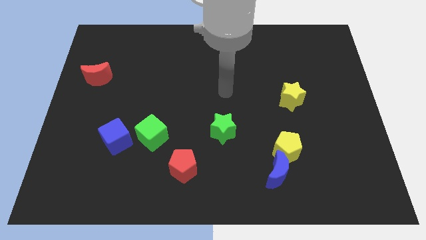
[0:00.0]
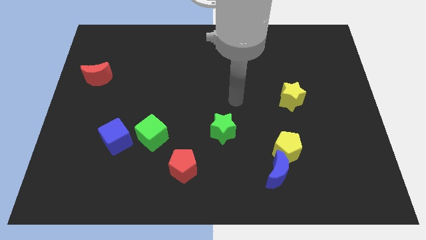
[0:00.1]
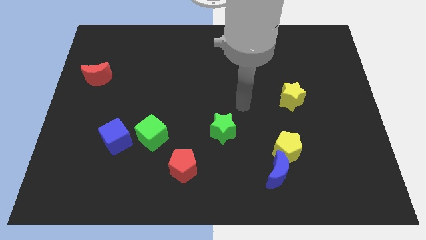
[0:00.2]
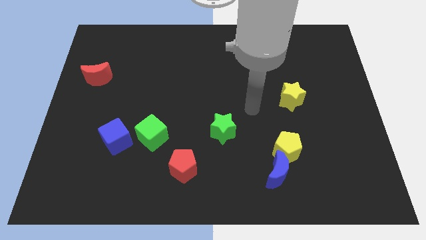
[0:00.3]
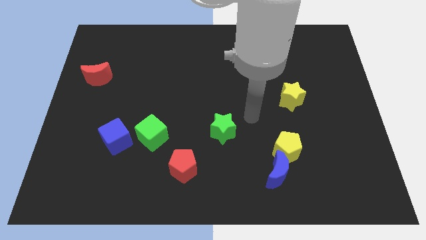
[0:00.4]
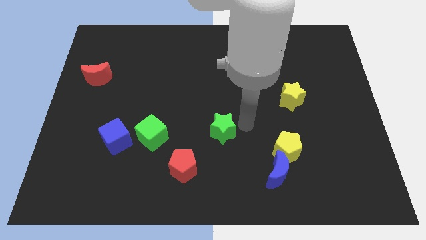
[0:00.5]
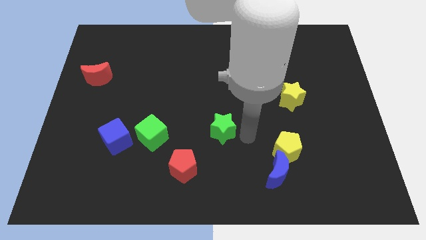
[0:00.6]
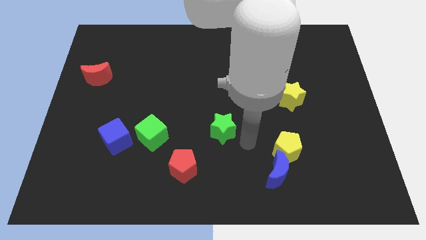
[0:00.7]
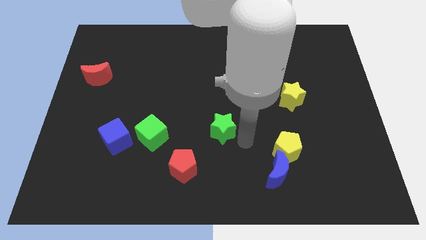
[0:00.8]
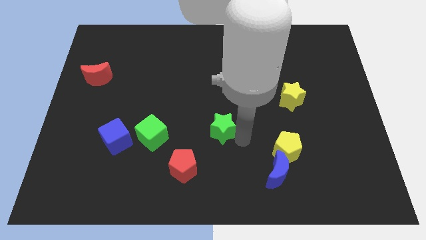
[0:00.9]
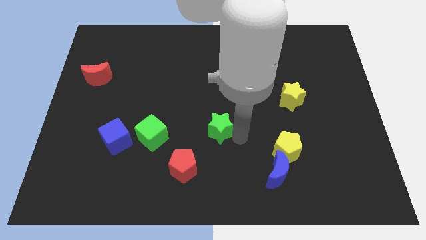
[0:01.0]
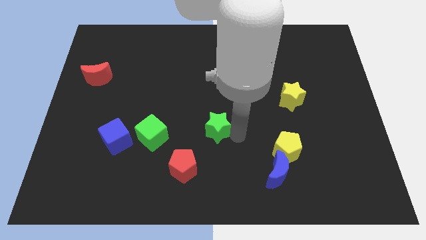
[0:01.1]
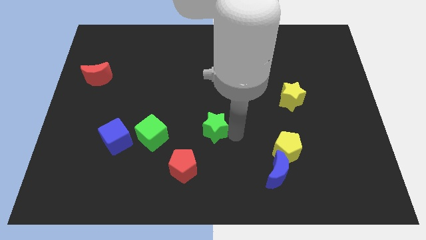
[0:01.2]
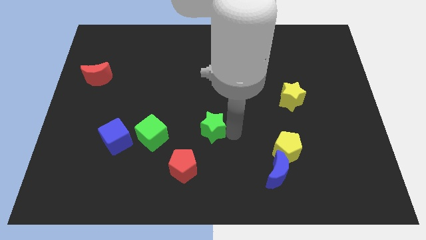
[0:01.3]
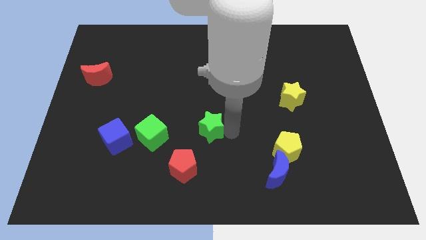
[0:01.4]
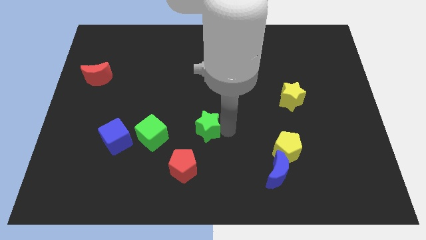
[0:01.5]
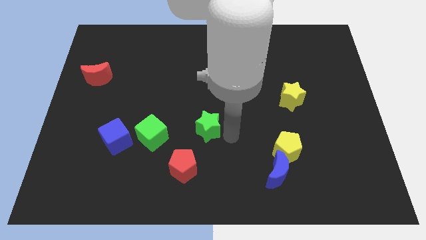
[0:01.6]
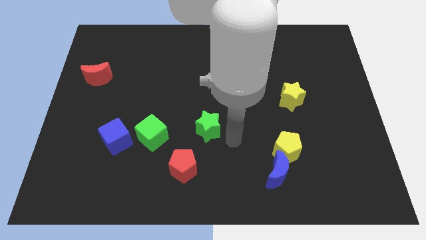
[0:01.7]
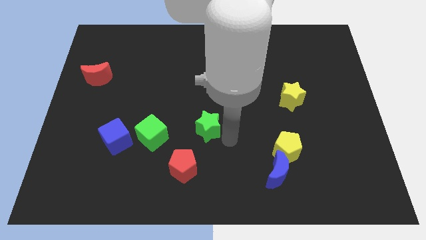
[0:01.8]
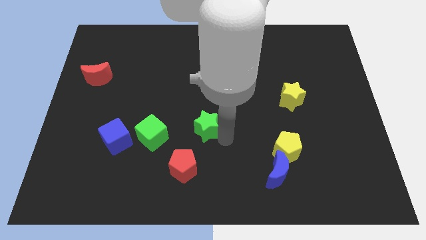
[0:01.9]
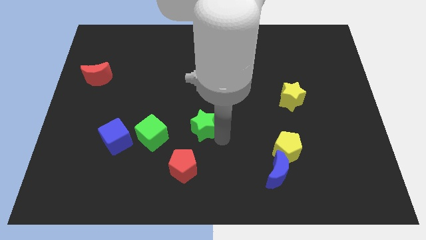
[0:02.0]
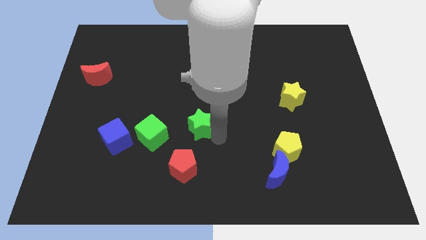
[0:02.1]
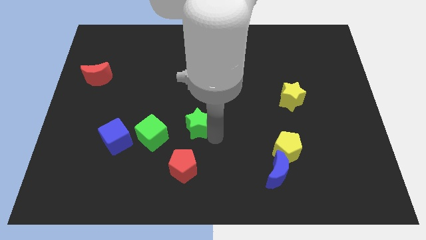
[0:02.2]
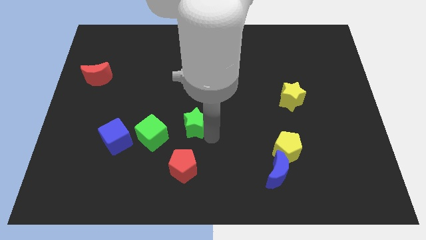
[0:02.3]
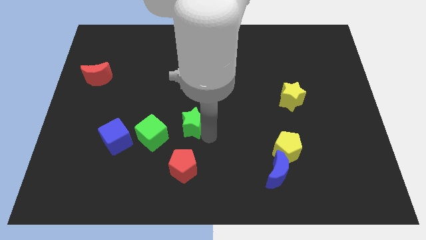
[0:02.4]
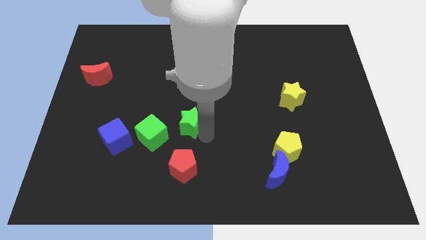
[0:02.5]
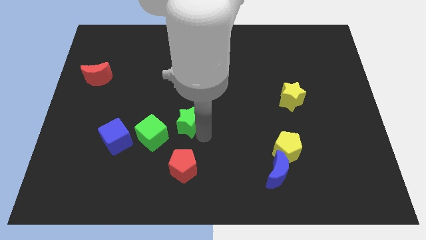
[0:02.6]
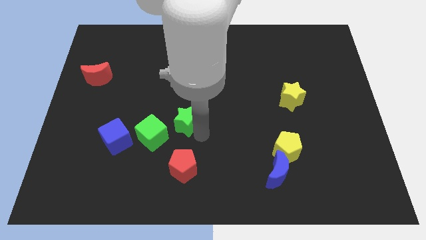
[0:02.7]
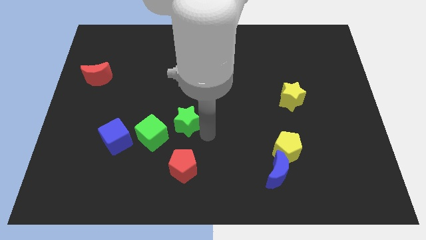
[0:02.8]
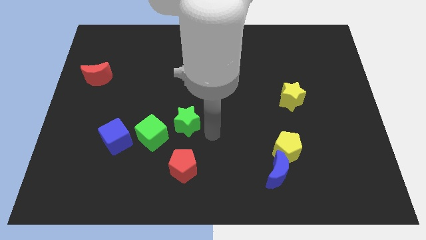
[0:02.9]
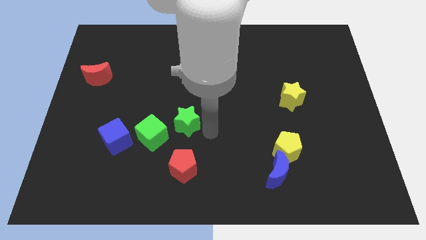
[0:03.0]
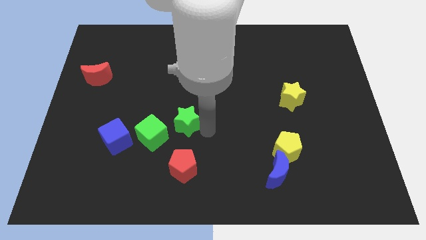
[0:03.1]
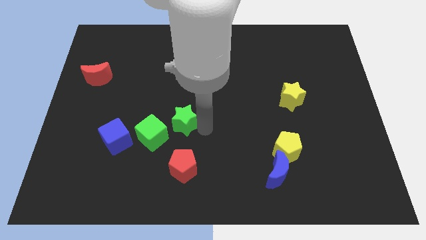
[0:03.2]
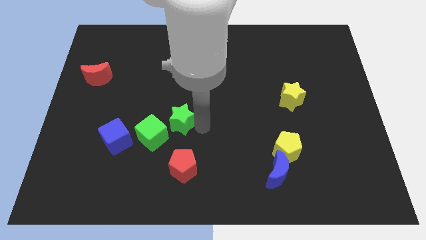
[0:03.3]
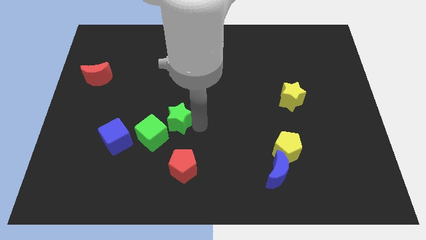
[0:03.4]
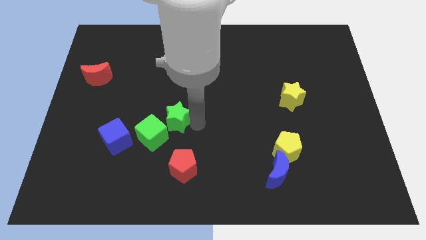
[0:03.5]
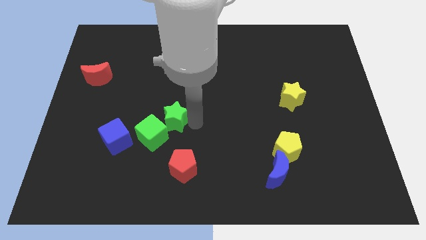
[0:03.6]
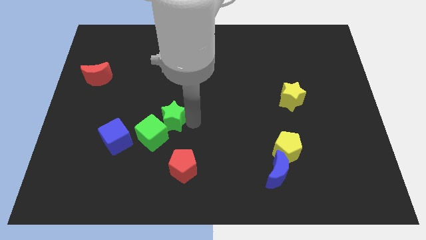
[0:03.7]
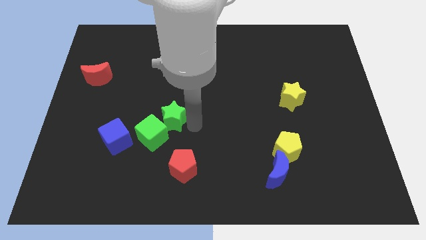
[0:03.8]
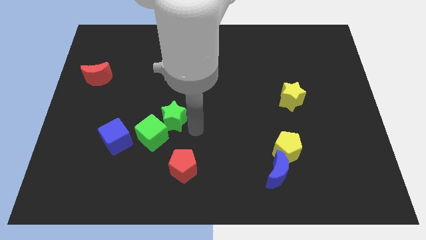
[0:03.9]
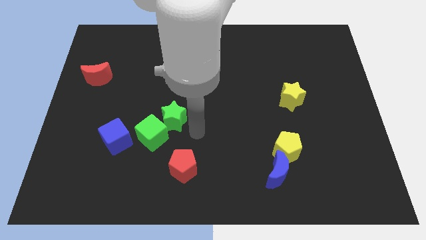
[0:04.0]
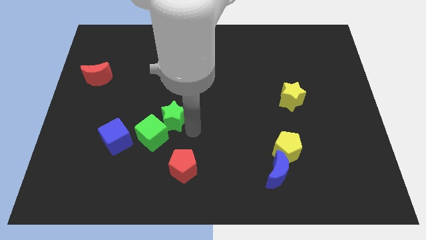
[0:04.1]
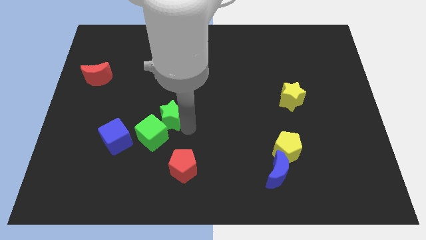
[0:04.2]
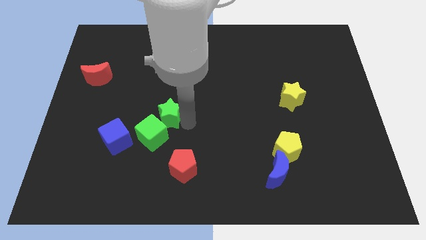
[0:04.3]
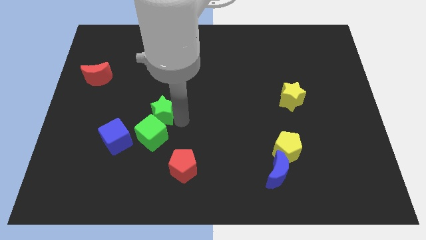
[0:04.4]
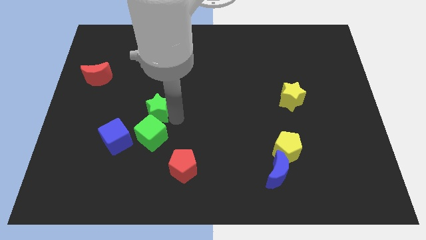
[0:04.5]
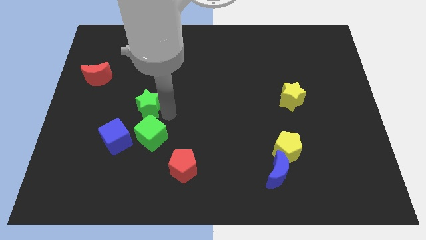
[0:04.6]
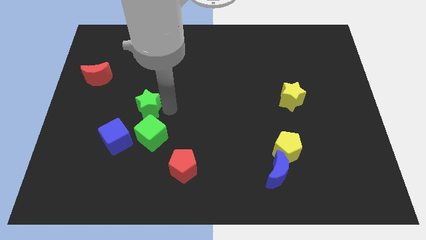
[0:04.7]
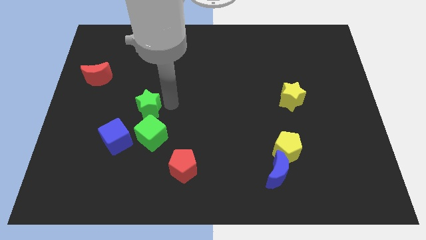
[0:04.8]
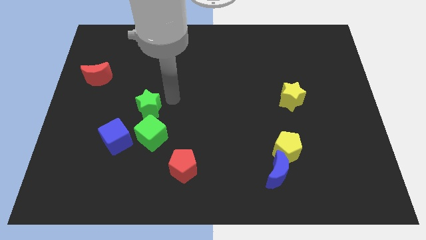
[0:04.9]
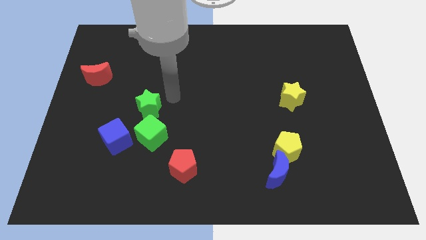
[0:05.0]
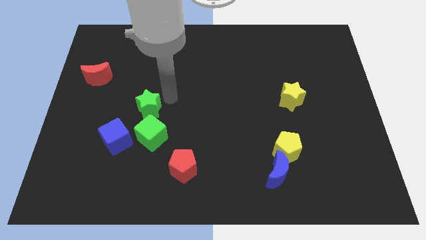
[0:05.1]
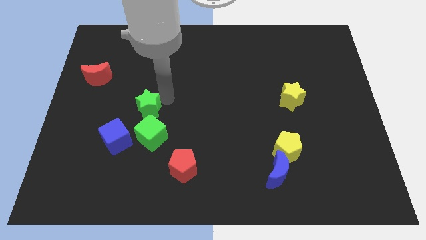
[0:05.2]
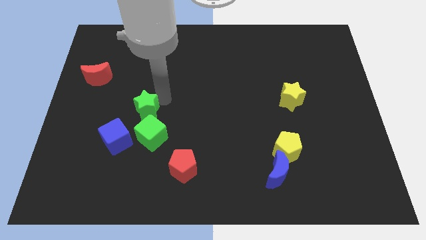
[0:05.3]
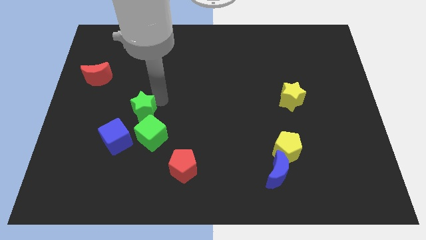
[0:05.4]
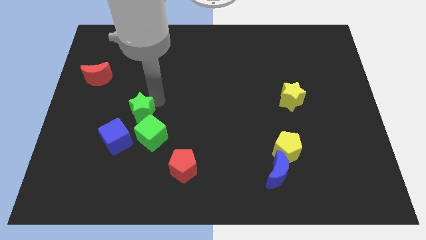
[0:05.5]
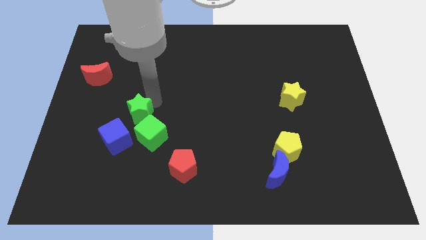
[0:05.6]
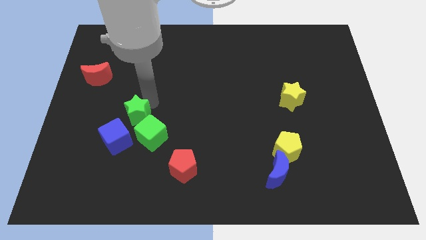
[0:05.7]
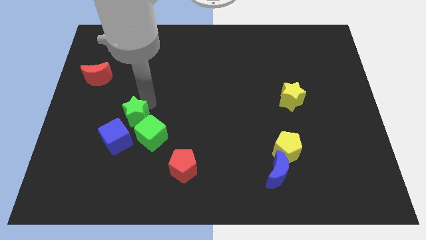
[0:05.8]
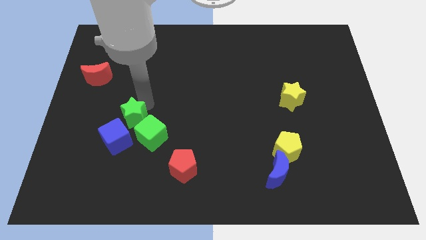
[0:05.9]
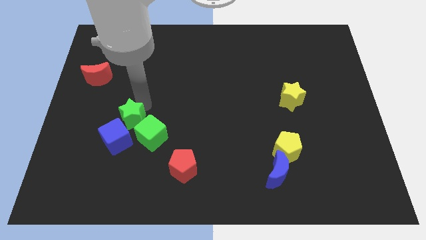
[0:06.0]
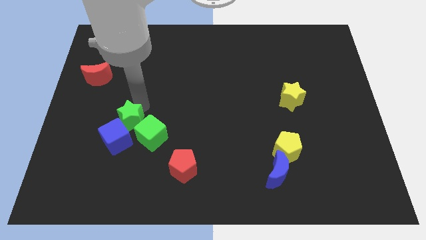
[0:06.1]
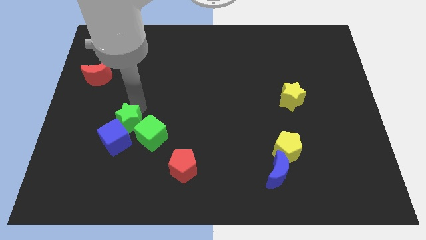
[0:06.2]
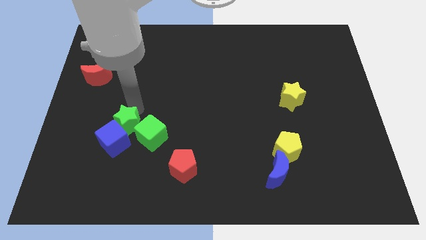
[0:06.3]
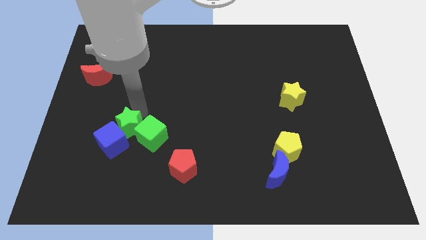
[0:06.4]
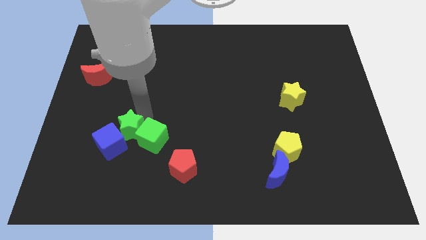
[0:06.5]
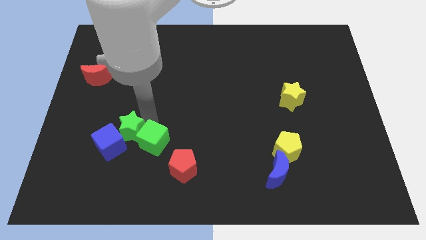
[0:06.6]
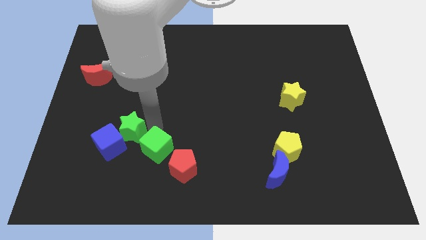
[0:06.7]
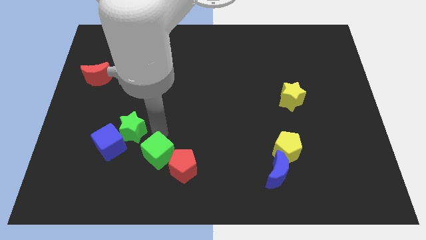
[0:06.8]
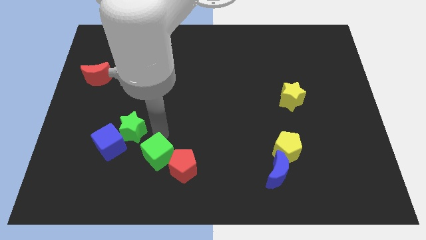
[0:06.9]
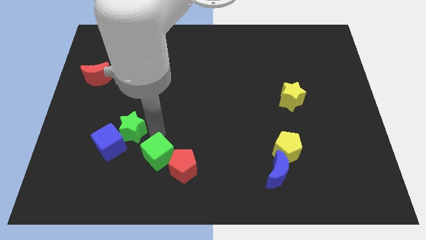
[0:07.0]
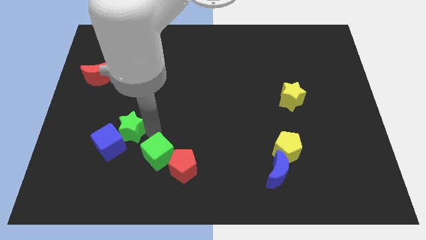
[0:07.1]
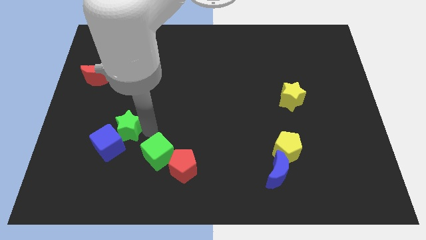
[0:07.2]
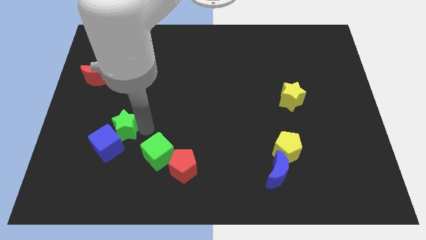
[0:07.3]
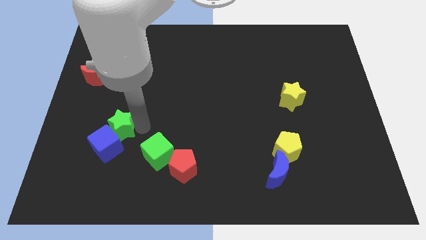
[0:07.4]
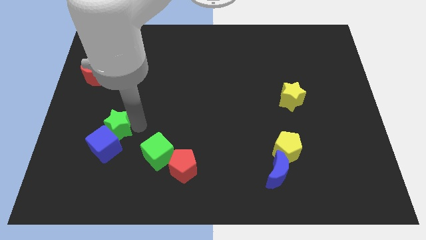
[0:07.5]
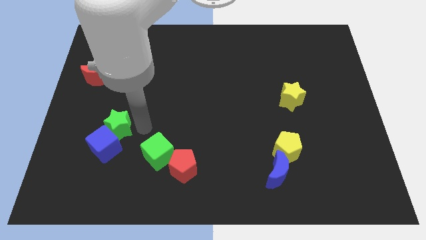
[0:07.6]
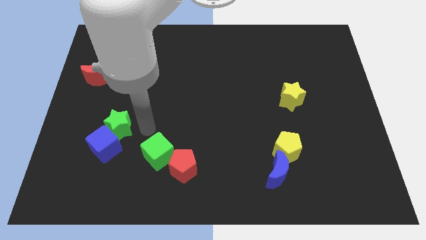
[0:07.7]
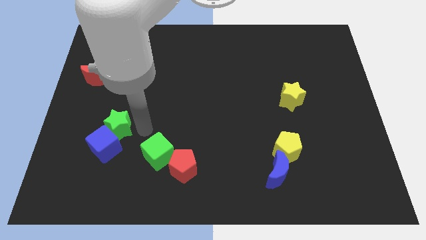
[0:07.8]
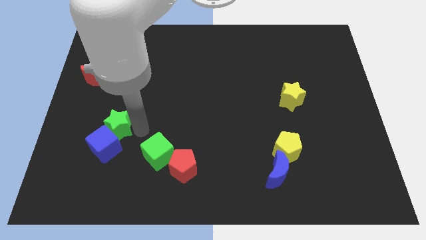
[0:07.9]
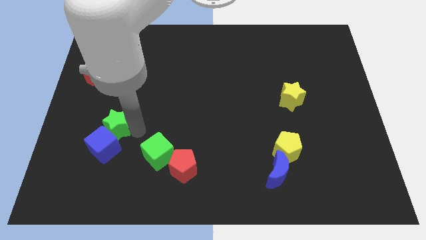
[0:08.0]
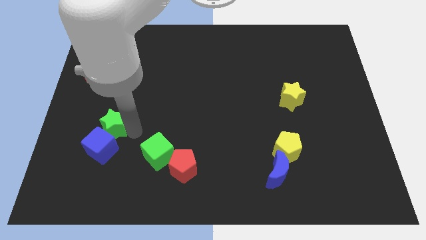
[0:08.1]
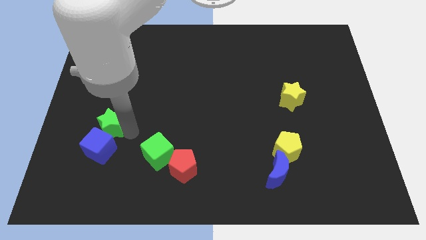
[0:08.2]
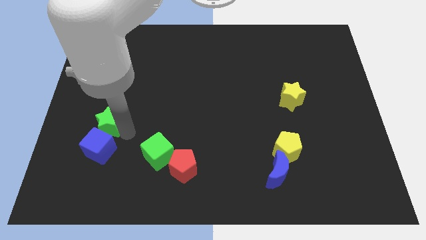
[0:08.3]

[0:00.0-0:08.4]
move the green star to the top left of the blue cube
